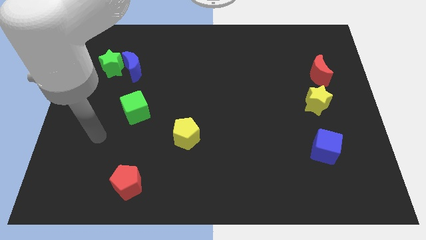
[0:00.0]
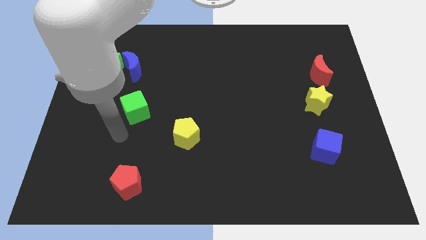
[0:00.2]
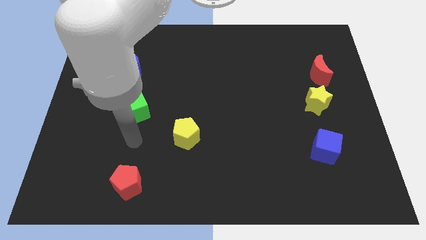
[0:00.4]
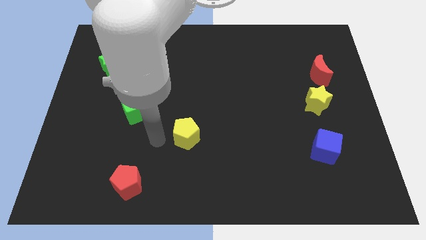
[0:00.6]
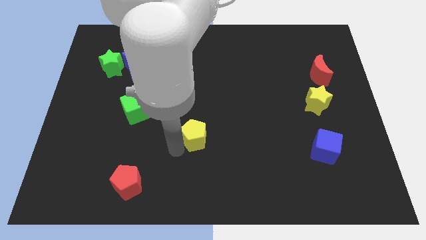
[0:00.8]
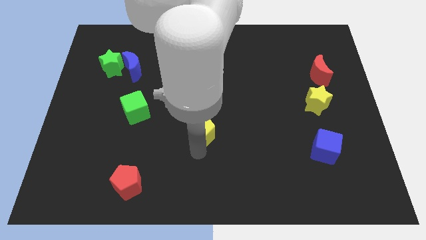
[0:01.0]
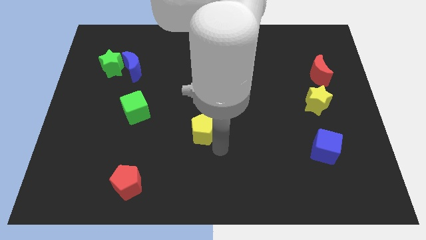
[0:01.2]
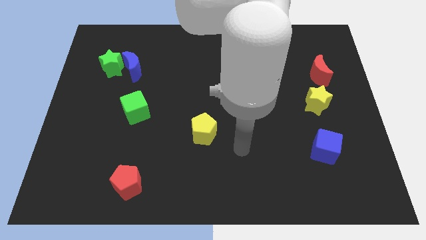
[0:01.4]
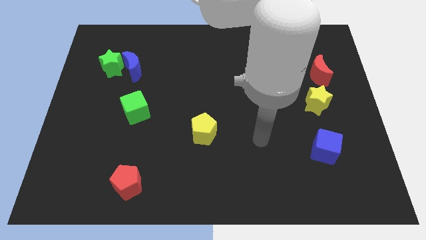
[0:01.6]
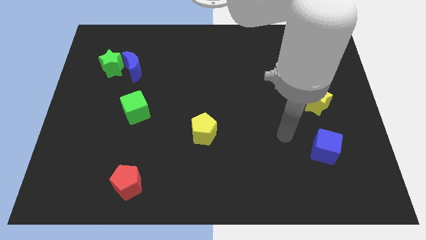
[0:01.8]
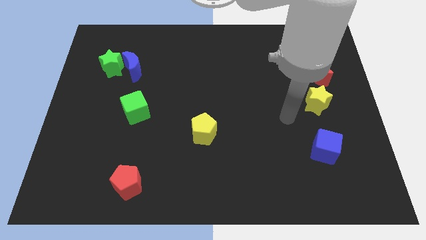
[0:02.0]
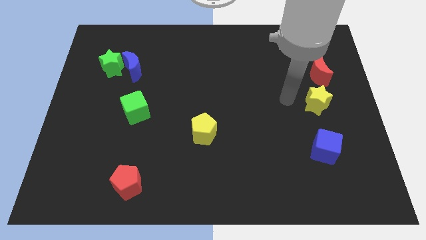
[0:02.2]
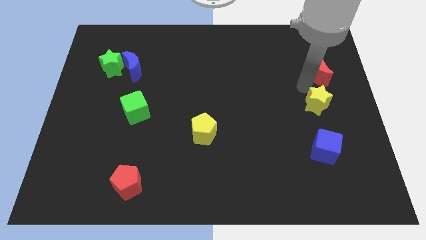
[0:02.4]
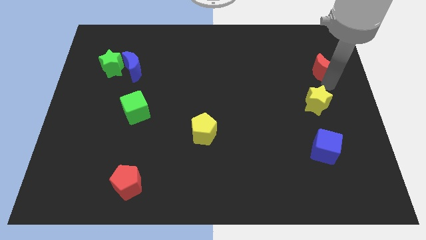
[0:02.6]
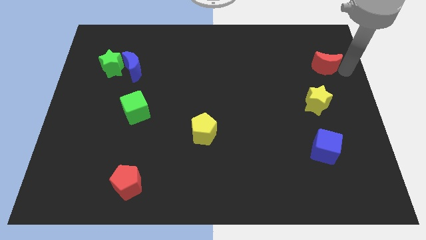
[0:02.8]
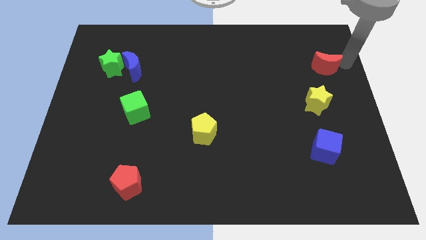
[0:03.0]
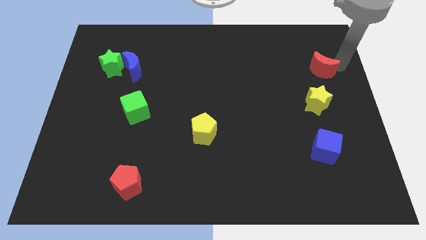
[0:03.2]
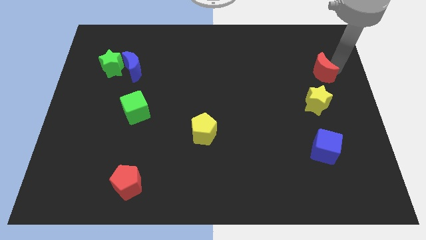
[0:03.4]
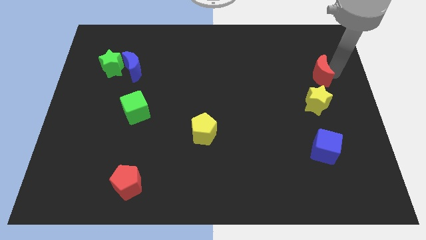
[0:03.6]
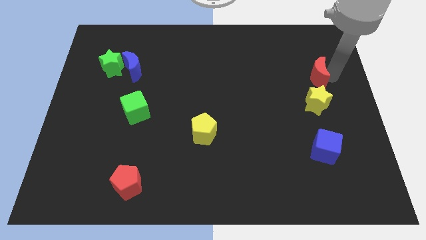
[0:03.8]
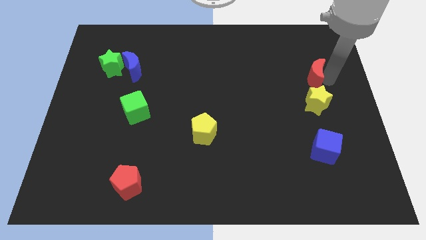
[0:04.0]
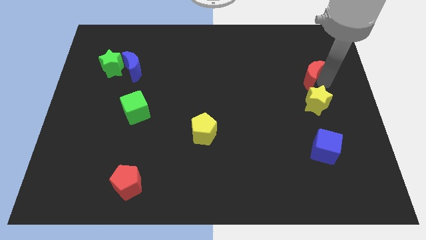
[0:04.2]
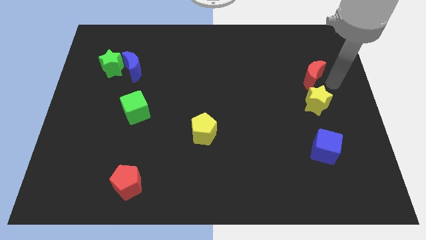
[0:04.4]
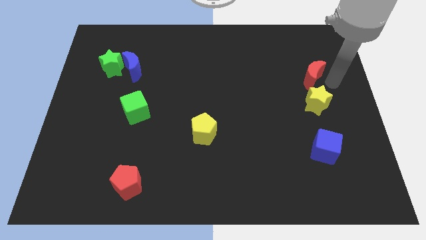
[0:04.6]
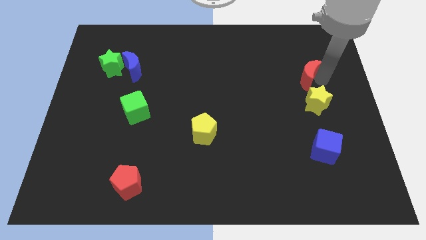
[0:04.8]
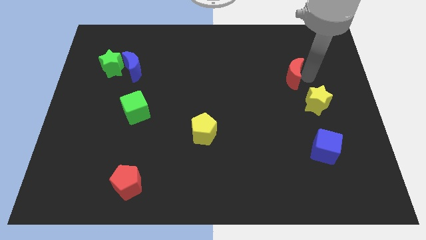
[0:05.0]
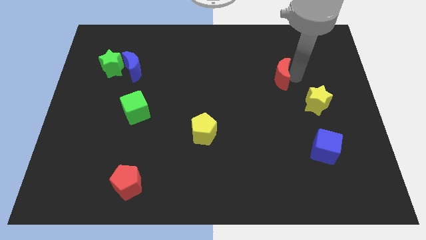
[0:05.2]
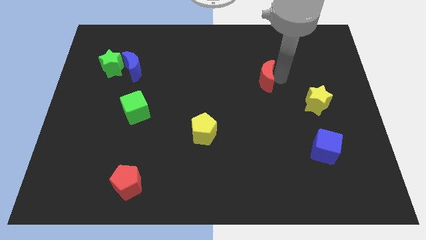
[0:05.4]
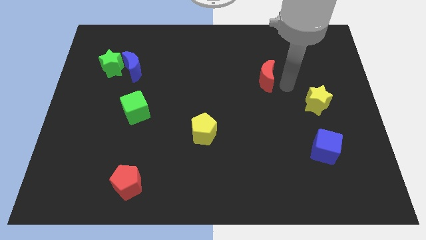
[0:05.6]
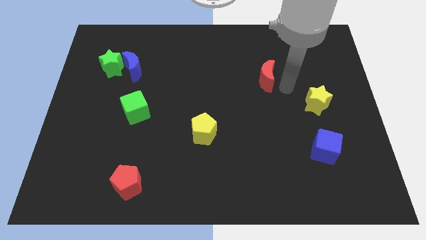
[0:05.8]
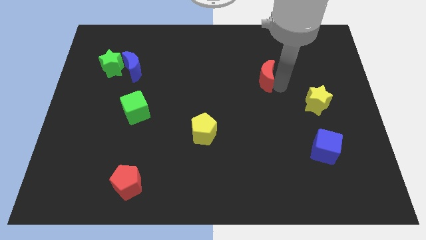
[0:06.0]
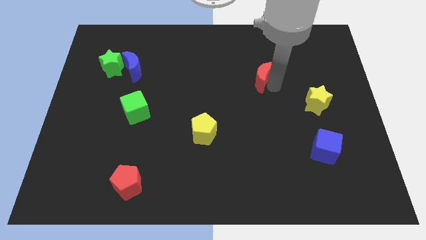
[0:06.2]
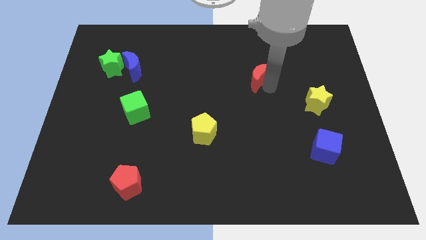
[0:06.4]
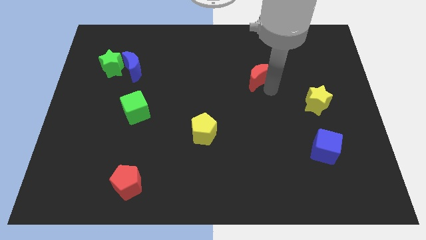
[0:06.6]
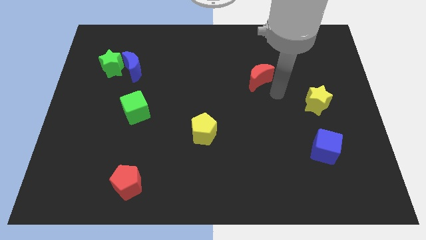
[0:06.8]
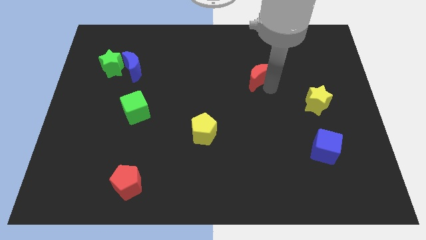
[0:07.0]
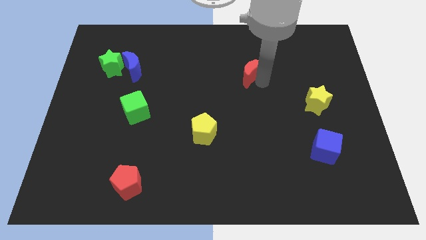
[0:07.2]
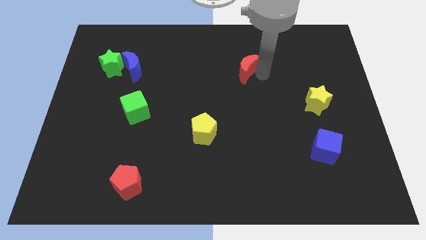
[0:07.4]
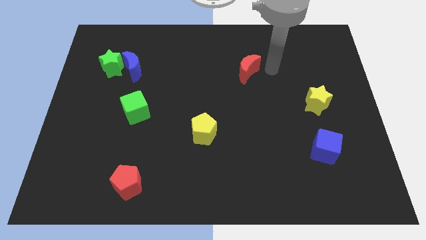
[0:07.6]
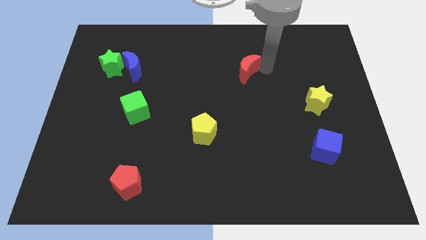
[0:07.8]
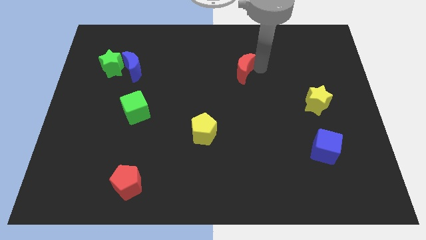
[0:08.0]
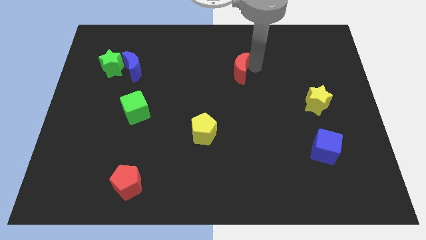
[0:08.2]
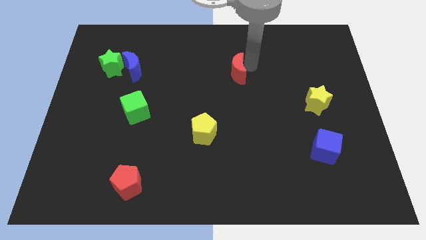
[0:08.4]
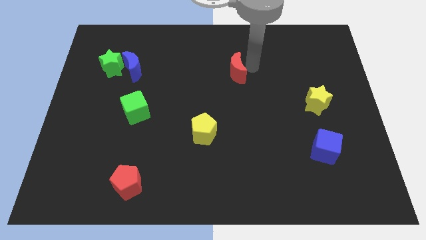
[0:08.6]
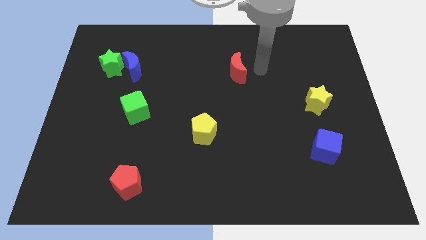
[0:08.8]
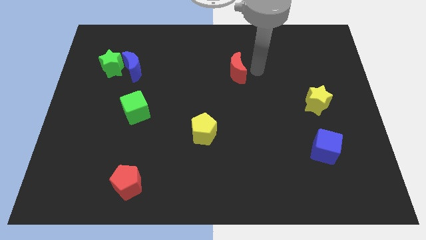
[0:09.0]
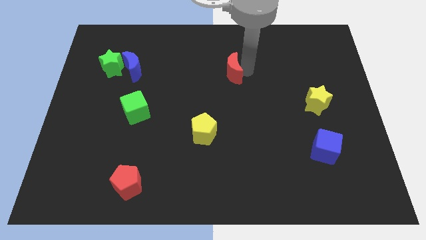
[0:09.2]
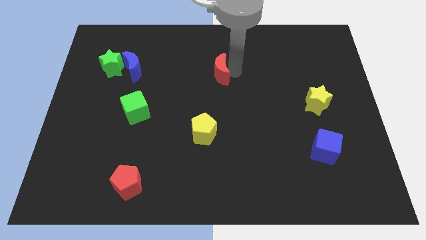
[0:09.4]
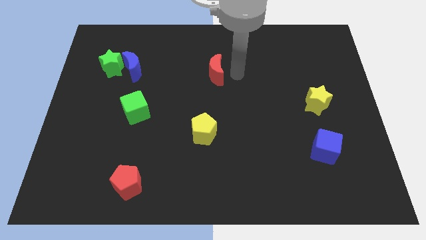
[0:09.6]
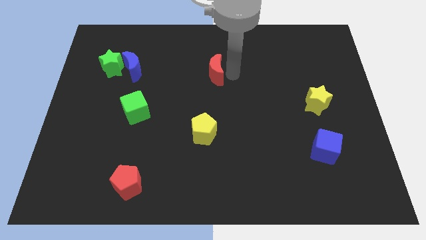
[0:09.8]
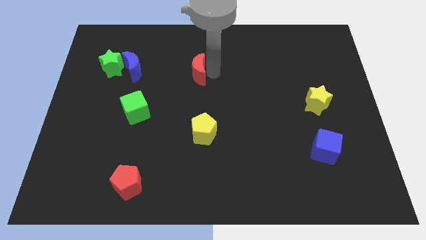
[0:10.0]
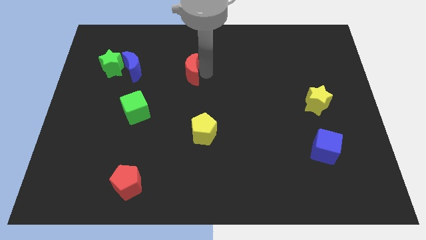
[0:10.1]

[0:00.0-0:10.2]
push the red moon just right of the blue moon

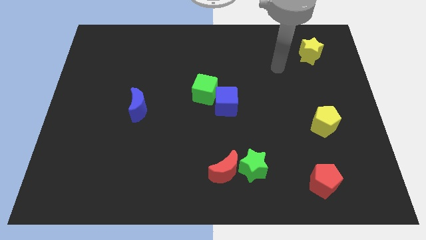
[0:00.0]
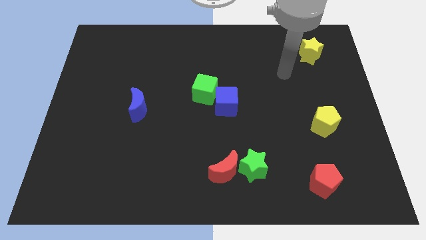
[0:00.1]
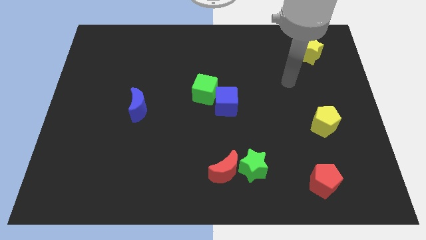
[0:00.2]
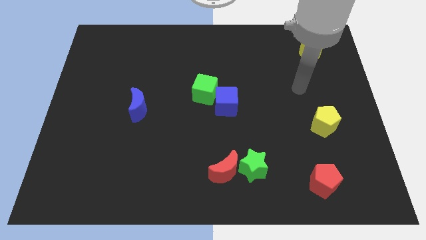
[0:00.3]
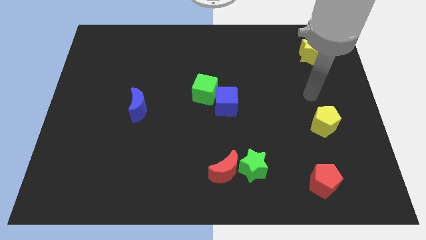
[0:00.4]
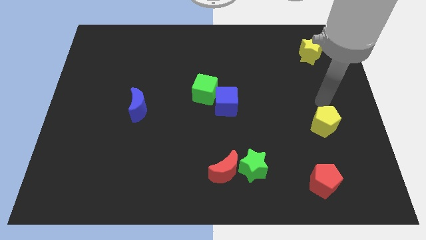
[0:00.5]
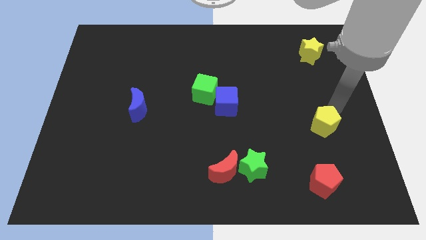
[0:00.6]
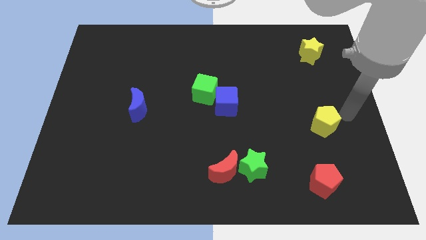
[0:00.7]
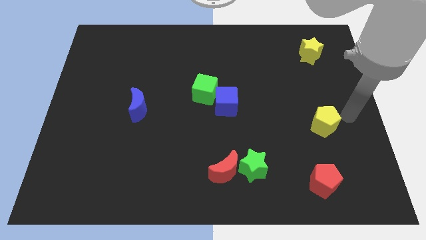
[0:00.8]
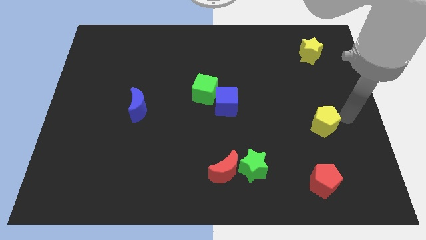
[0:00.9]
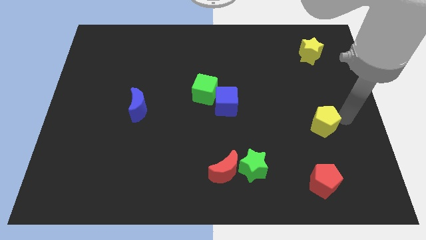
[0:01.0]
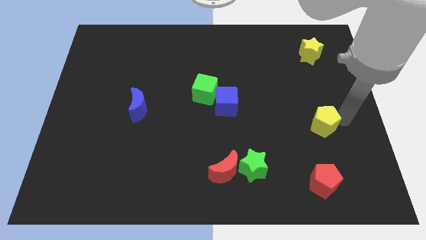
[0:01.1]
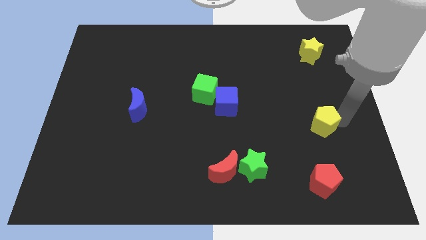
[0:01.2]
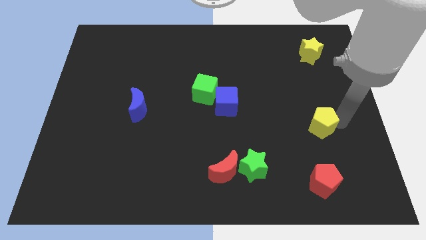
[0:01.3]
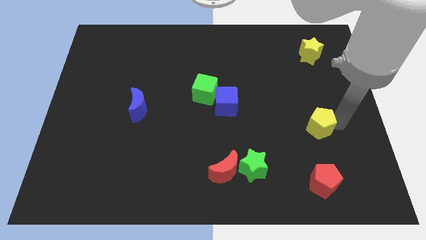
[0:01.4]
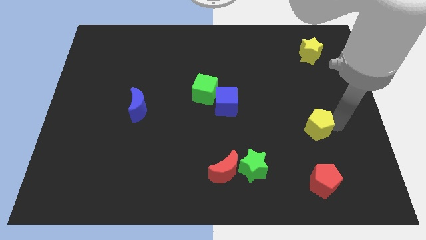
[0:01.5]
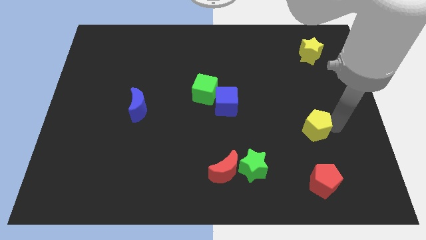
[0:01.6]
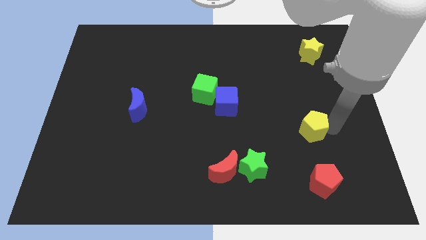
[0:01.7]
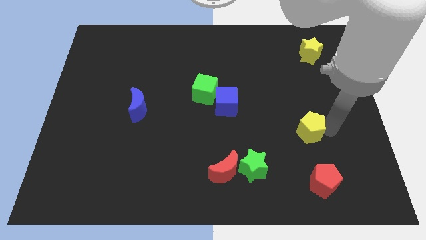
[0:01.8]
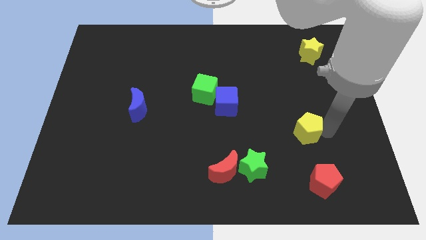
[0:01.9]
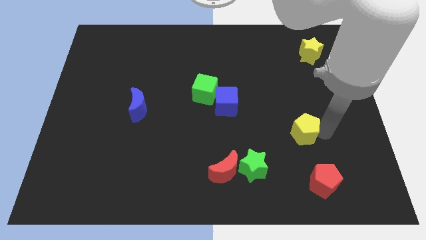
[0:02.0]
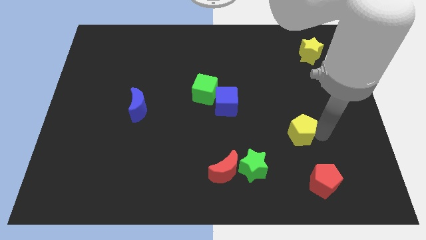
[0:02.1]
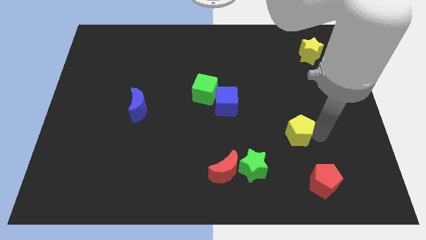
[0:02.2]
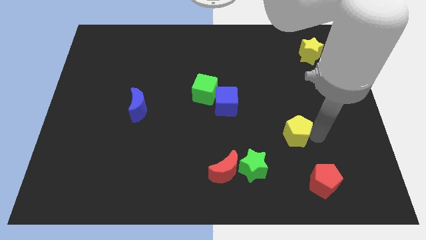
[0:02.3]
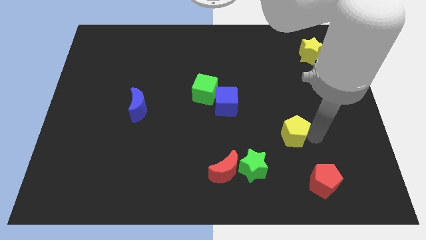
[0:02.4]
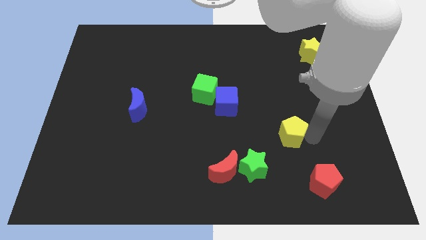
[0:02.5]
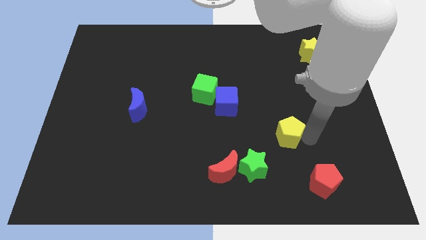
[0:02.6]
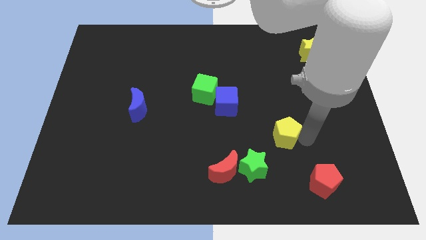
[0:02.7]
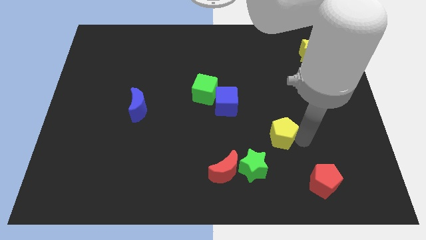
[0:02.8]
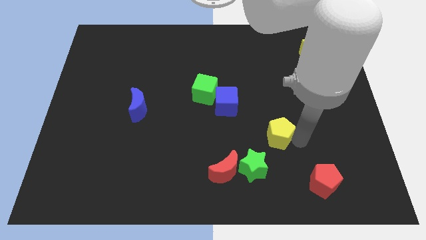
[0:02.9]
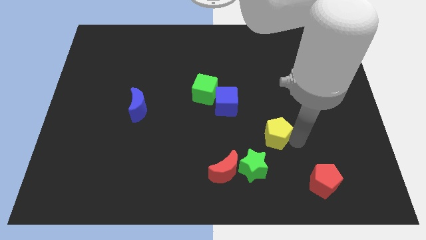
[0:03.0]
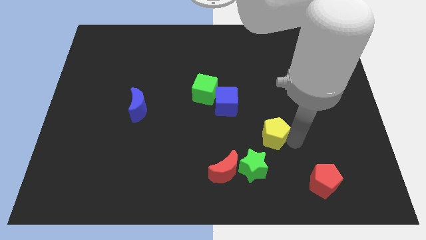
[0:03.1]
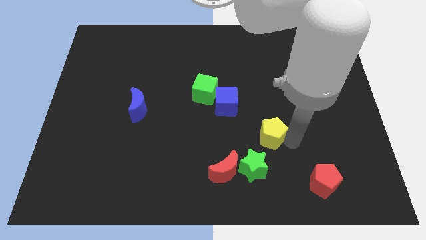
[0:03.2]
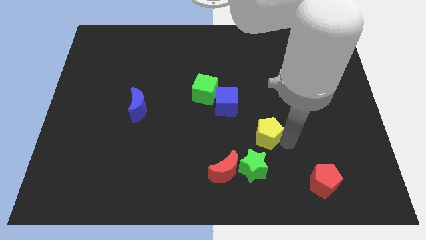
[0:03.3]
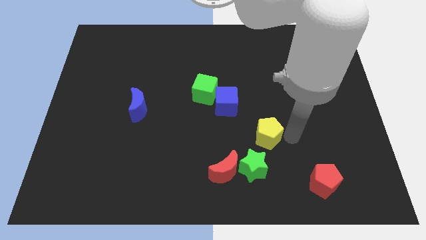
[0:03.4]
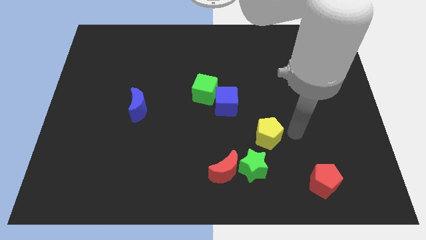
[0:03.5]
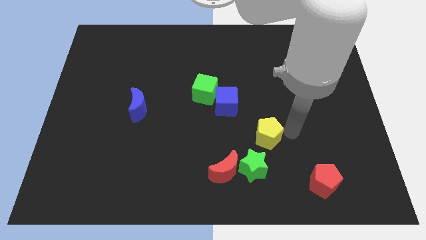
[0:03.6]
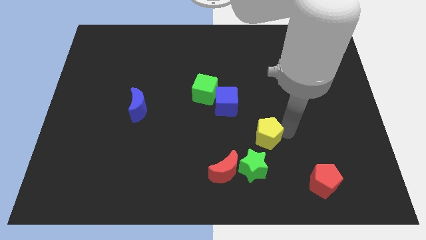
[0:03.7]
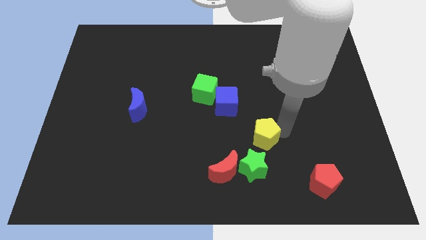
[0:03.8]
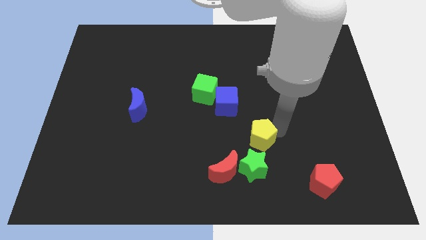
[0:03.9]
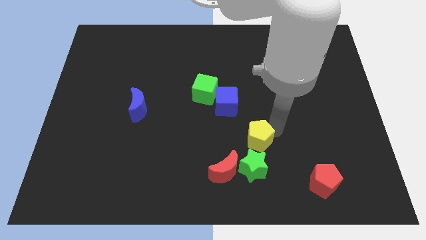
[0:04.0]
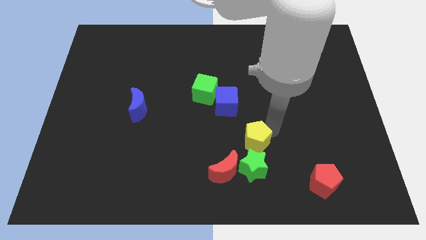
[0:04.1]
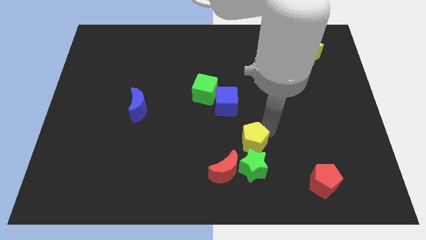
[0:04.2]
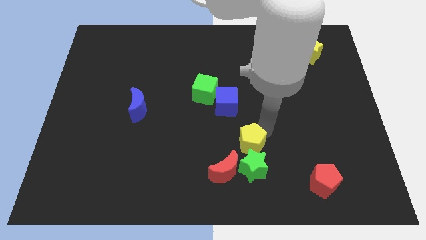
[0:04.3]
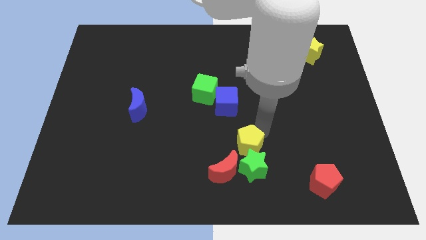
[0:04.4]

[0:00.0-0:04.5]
push the yellow pentagon below the blue cube
